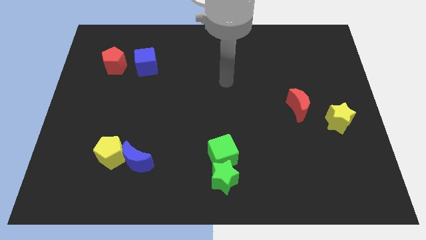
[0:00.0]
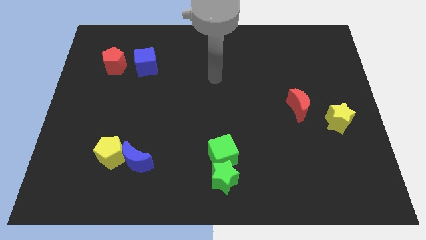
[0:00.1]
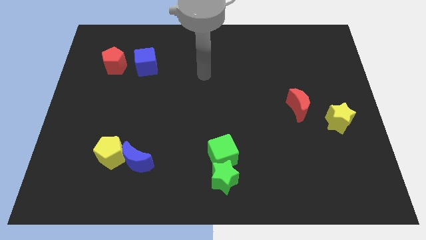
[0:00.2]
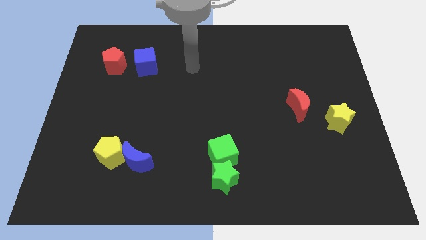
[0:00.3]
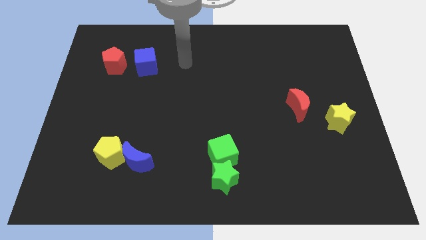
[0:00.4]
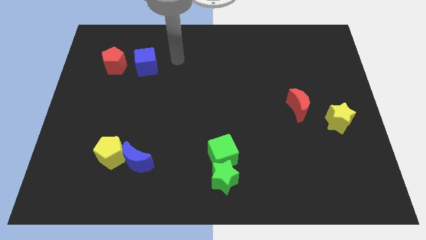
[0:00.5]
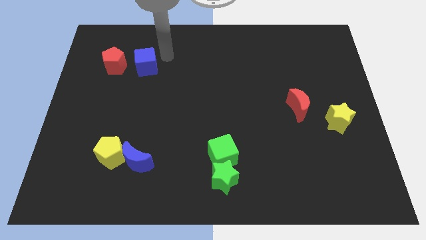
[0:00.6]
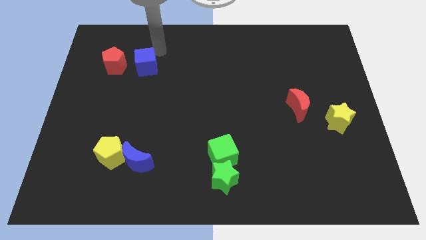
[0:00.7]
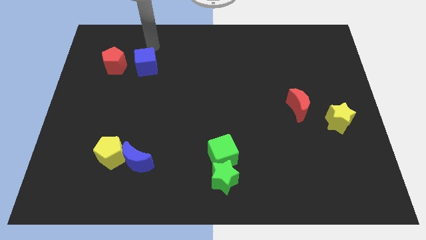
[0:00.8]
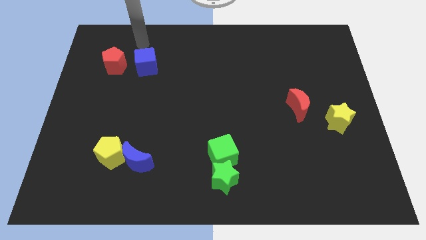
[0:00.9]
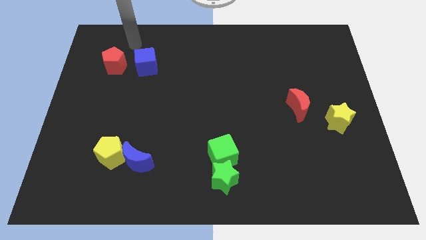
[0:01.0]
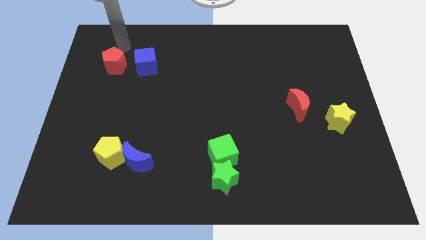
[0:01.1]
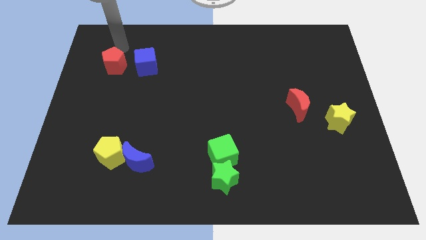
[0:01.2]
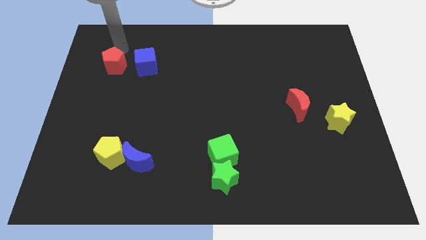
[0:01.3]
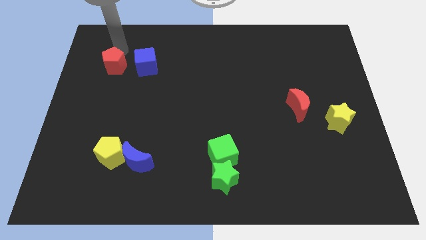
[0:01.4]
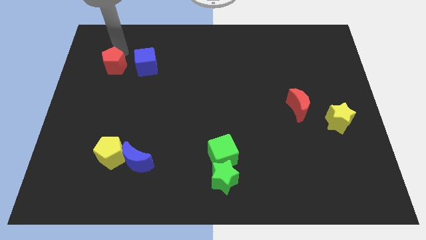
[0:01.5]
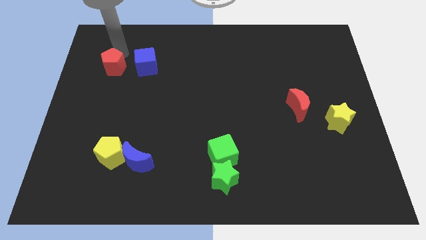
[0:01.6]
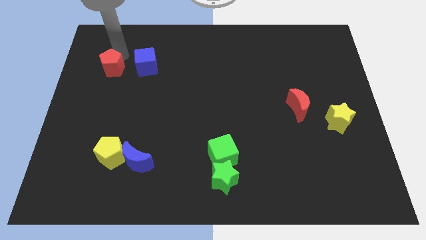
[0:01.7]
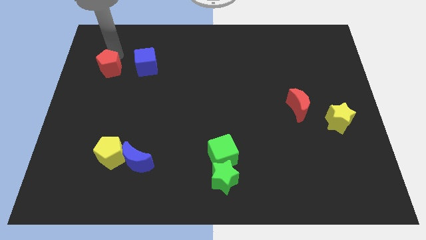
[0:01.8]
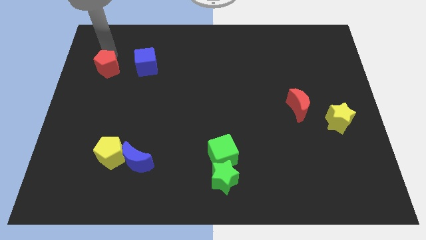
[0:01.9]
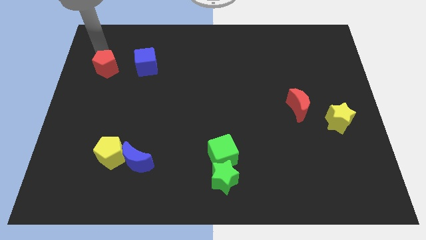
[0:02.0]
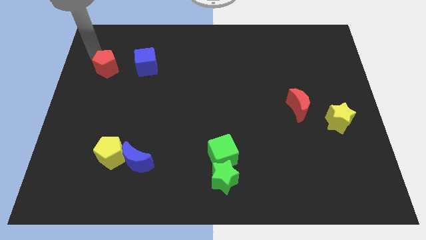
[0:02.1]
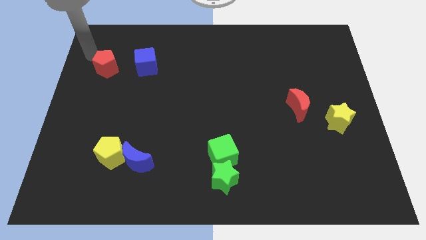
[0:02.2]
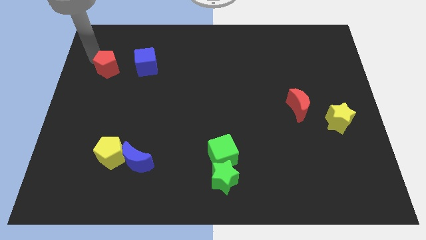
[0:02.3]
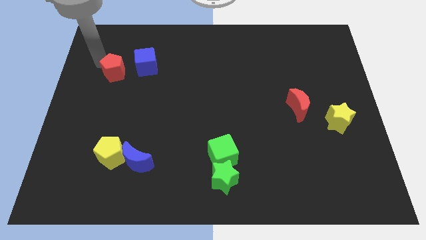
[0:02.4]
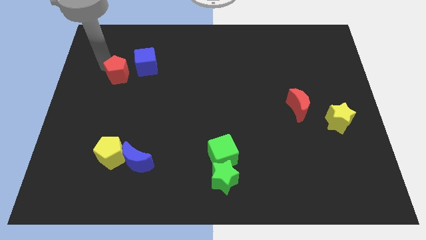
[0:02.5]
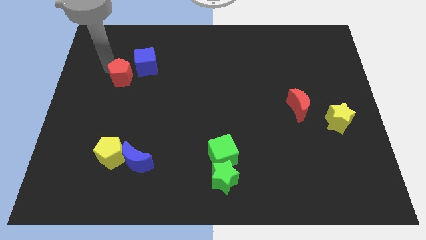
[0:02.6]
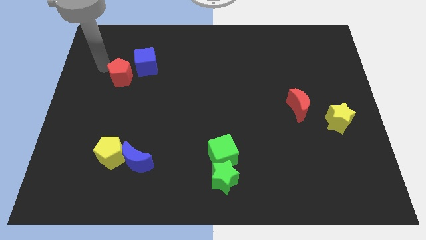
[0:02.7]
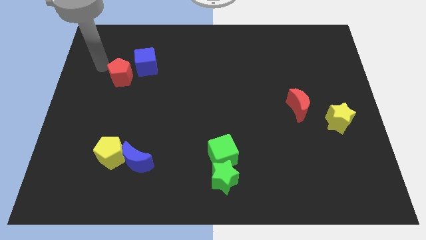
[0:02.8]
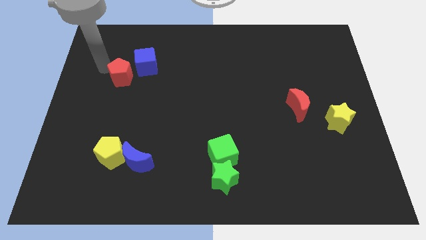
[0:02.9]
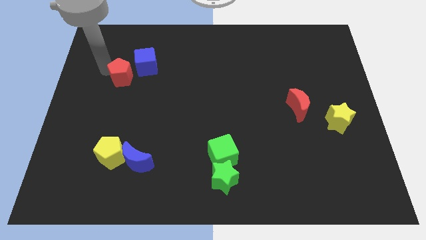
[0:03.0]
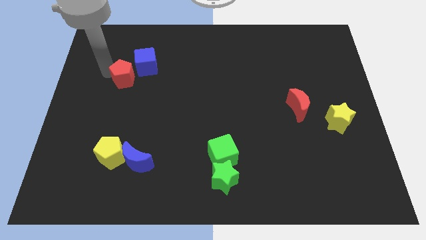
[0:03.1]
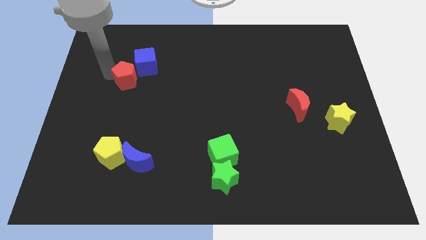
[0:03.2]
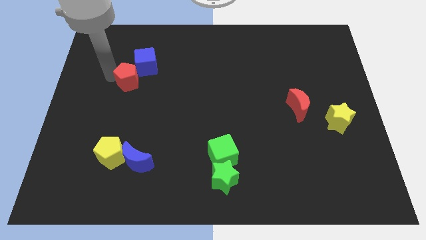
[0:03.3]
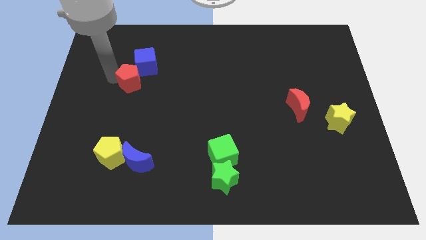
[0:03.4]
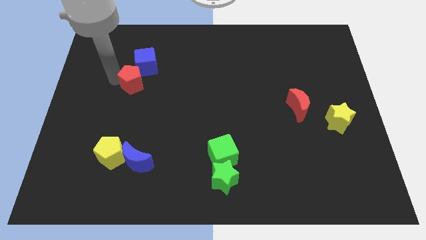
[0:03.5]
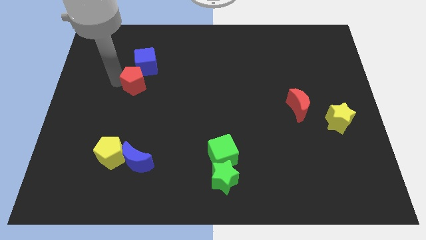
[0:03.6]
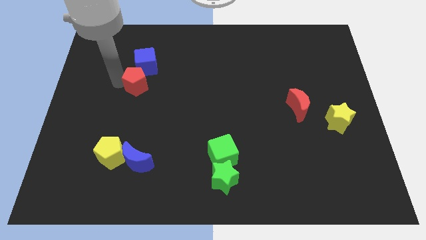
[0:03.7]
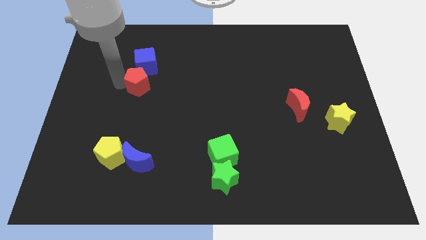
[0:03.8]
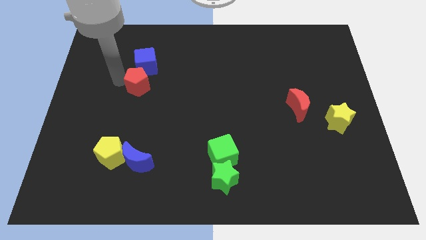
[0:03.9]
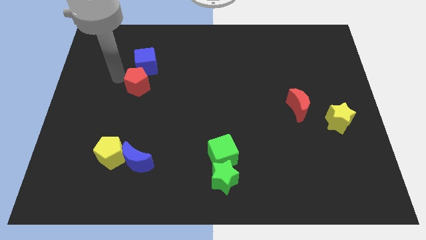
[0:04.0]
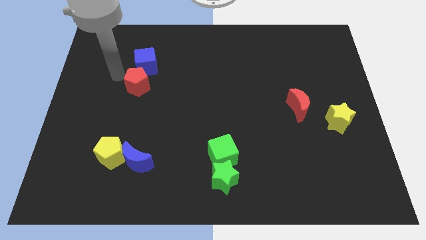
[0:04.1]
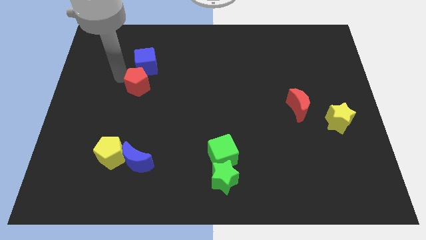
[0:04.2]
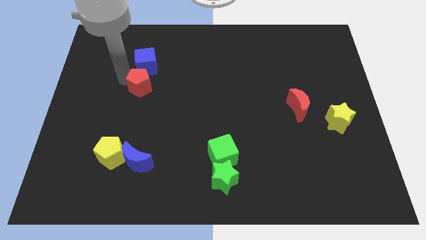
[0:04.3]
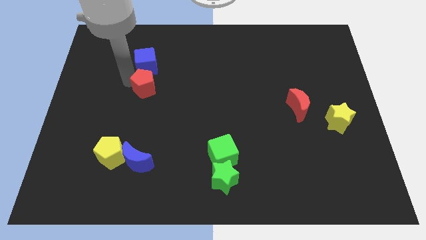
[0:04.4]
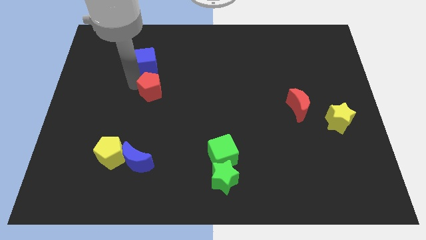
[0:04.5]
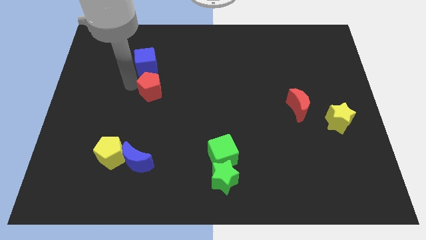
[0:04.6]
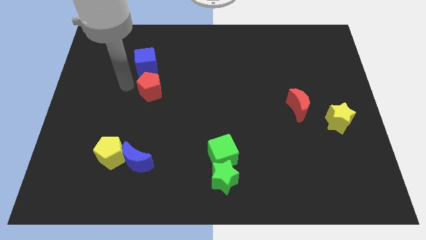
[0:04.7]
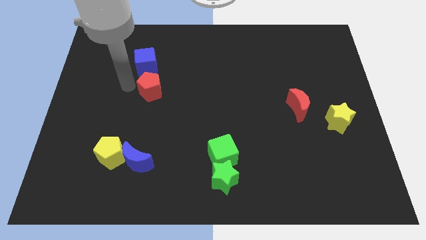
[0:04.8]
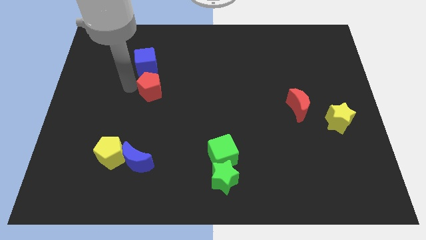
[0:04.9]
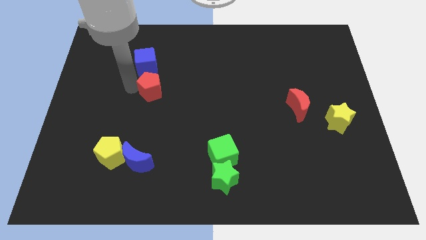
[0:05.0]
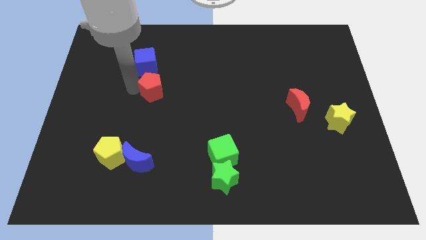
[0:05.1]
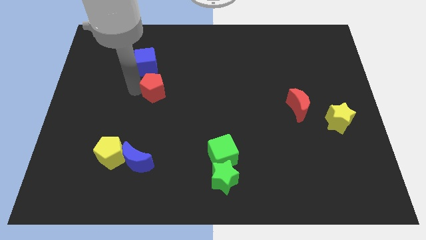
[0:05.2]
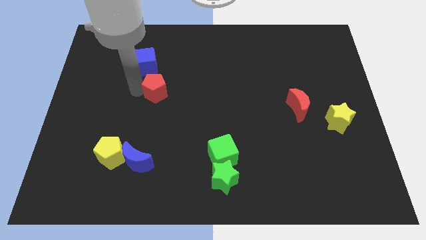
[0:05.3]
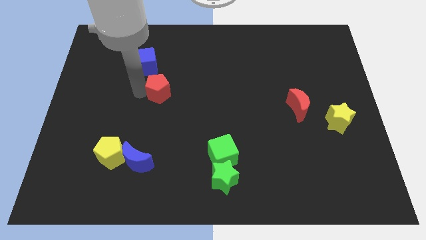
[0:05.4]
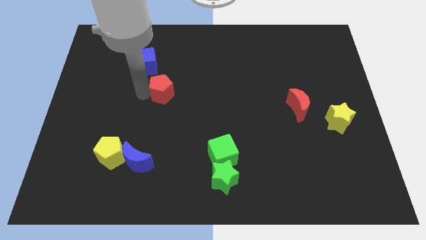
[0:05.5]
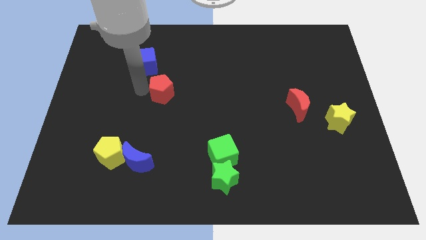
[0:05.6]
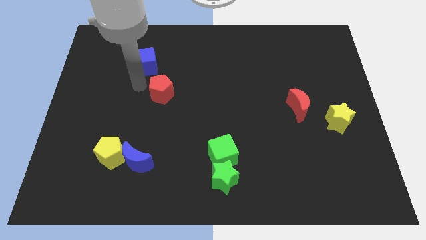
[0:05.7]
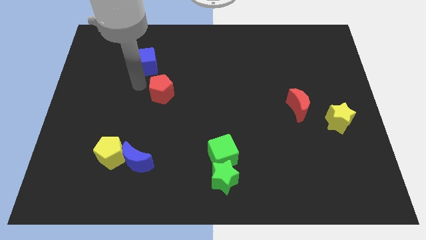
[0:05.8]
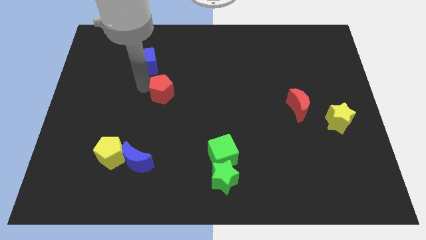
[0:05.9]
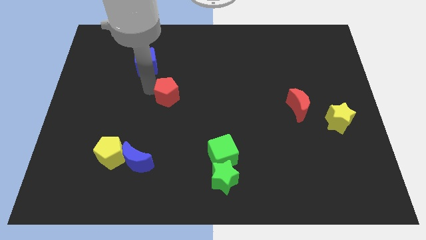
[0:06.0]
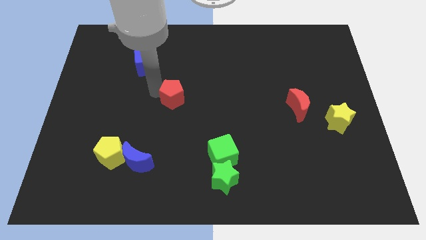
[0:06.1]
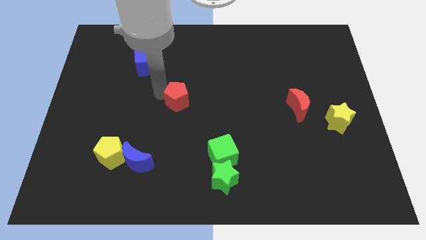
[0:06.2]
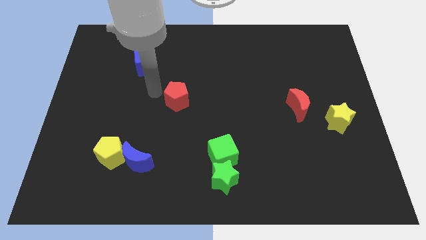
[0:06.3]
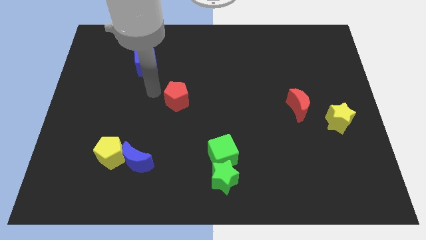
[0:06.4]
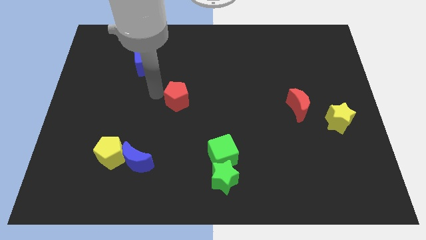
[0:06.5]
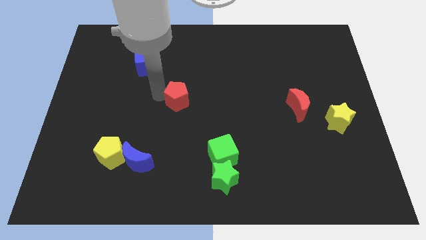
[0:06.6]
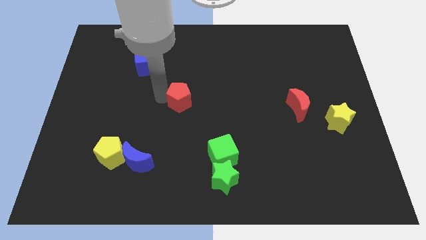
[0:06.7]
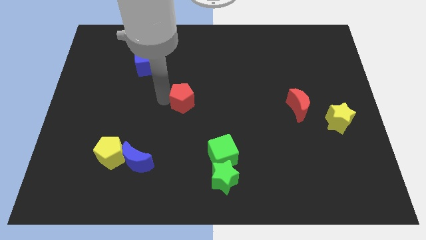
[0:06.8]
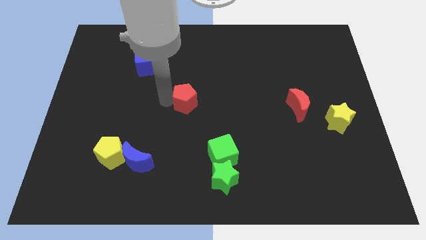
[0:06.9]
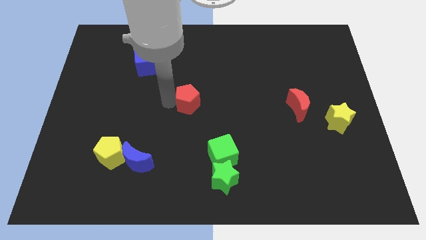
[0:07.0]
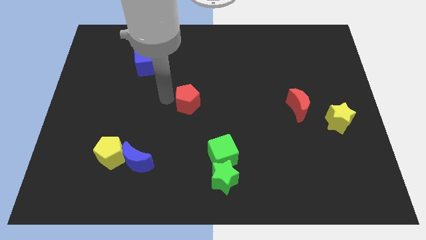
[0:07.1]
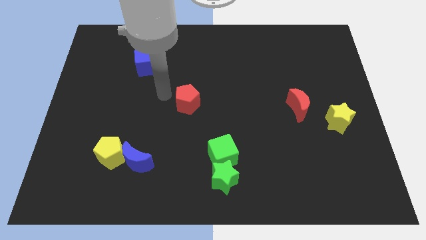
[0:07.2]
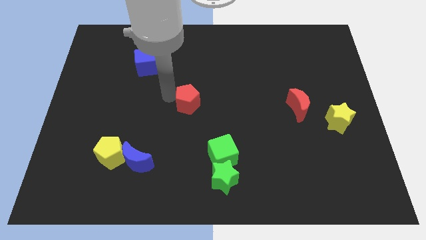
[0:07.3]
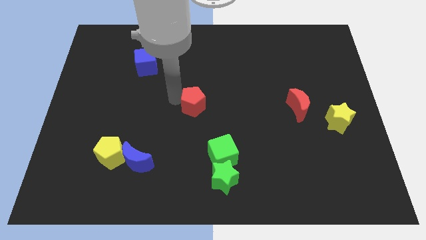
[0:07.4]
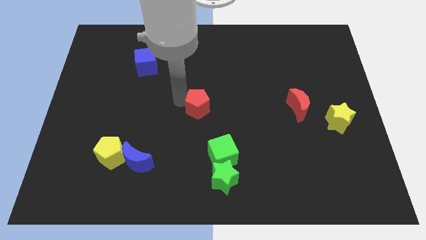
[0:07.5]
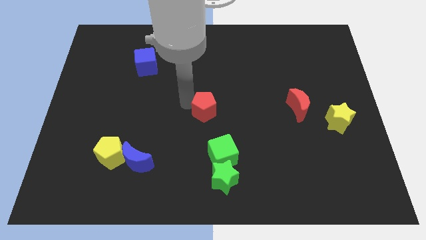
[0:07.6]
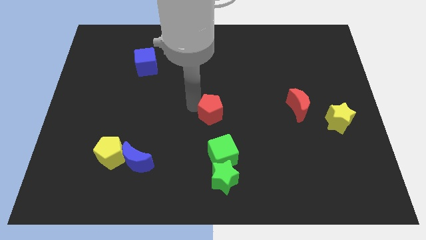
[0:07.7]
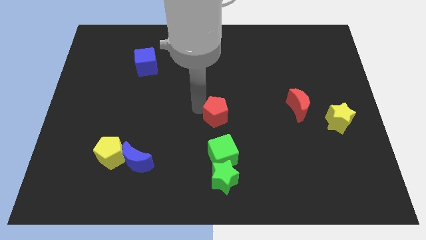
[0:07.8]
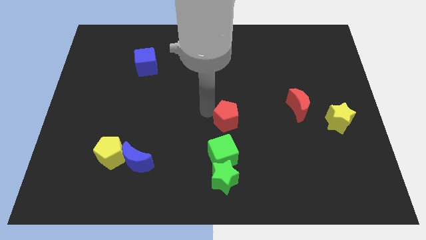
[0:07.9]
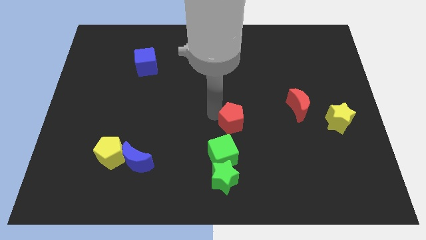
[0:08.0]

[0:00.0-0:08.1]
put the red pentagon diagonally up and to the right of the green cube
